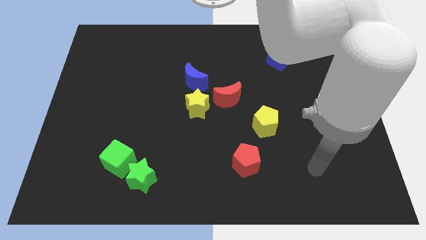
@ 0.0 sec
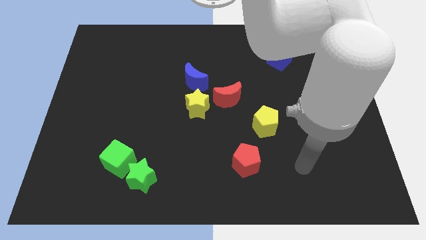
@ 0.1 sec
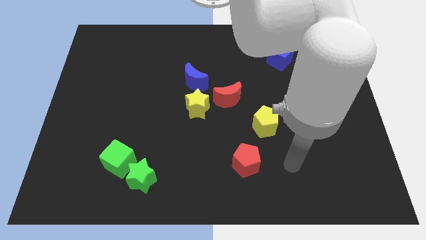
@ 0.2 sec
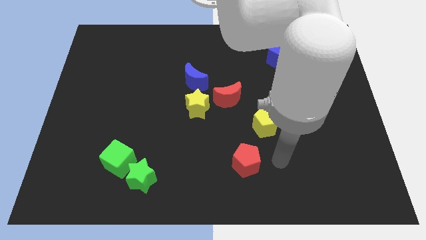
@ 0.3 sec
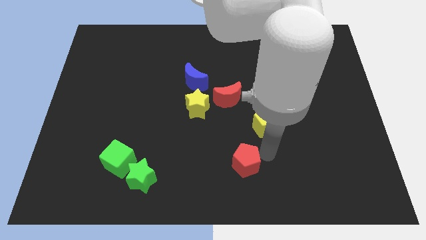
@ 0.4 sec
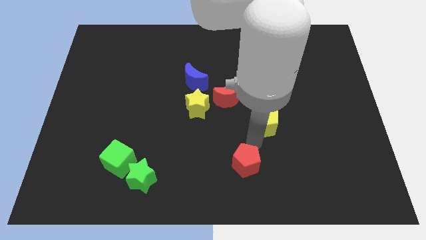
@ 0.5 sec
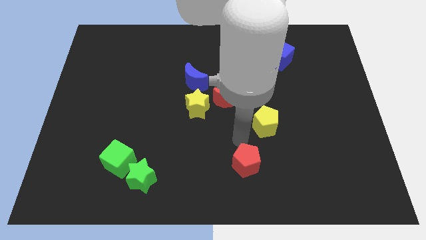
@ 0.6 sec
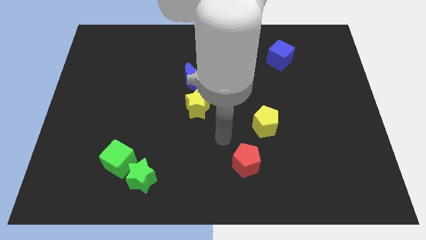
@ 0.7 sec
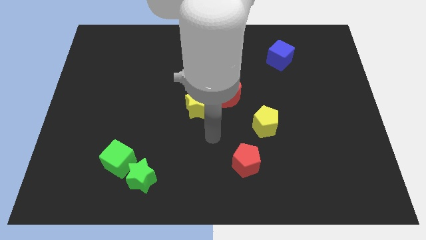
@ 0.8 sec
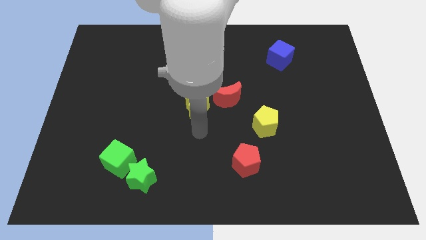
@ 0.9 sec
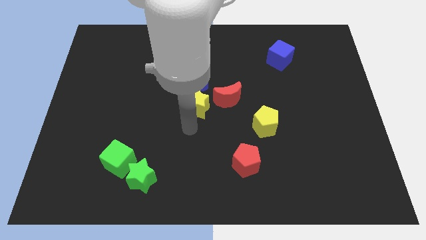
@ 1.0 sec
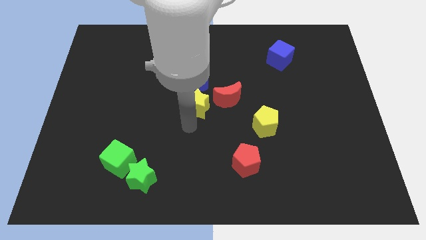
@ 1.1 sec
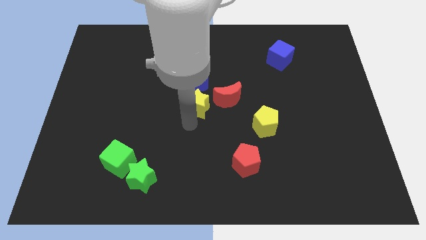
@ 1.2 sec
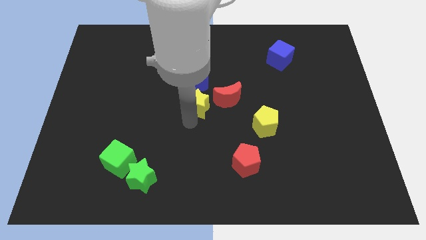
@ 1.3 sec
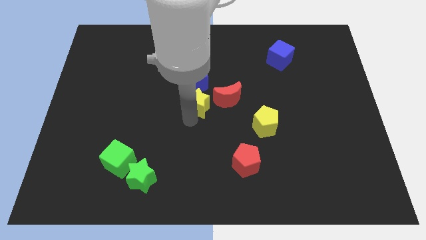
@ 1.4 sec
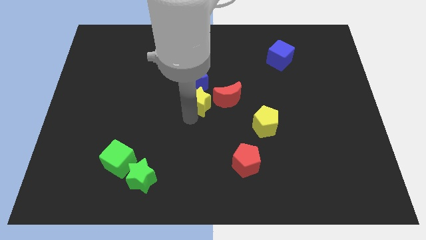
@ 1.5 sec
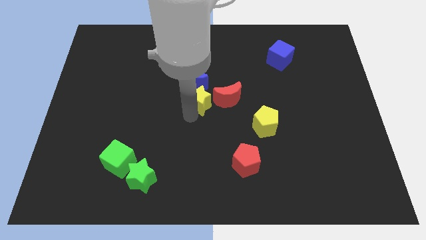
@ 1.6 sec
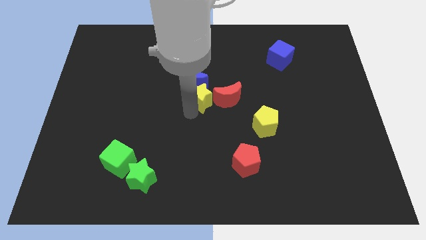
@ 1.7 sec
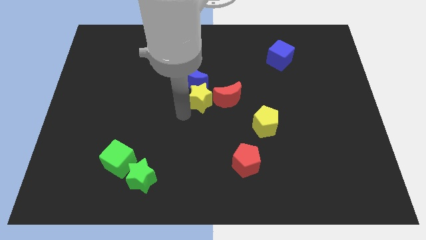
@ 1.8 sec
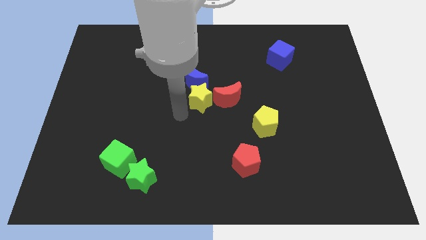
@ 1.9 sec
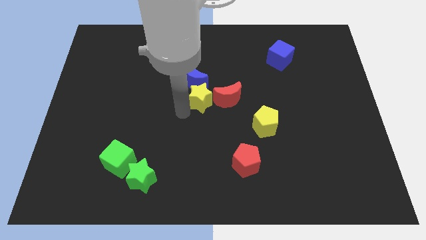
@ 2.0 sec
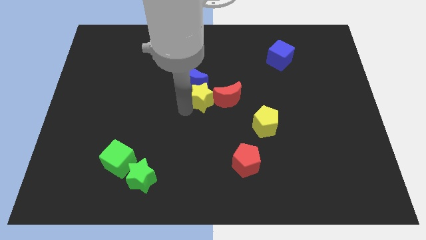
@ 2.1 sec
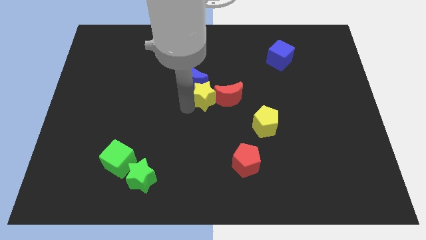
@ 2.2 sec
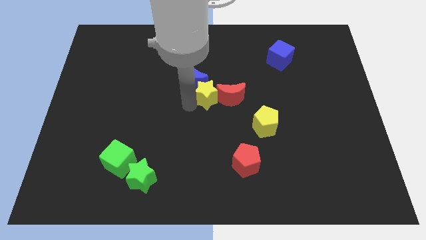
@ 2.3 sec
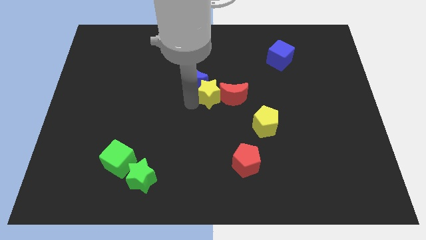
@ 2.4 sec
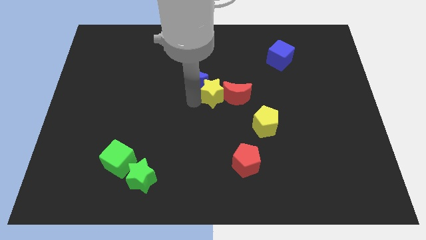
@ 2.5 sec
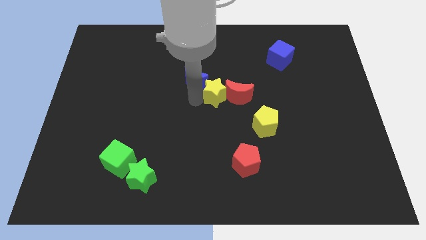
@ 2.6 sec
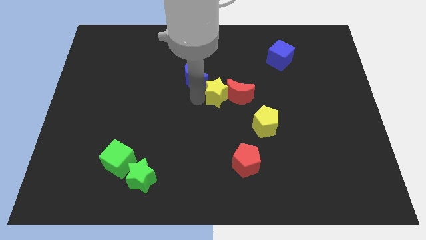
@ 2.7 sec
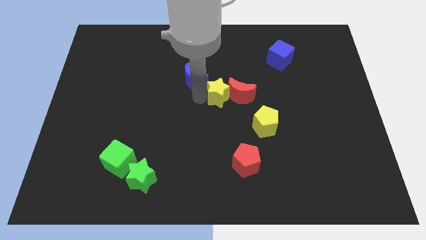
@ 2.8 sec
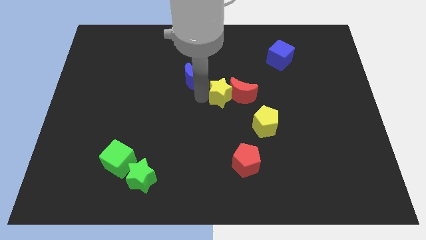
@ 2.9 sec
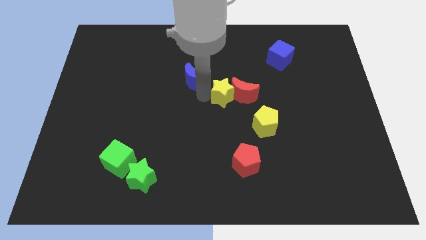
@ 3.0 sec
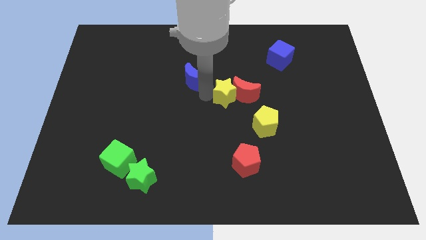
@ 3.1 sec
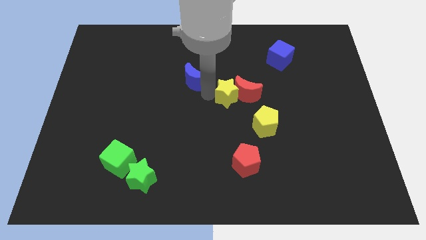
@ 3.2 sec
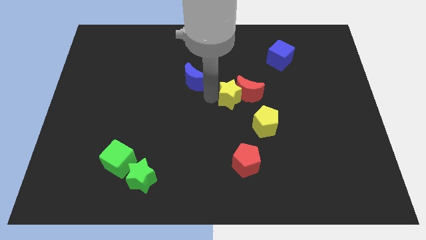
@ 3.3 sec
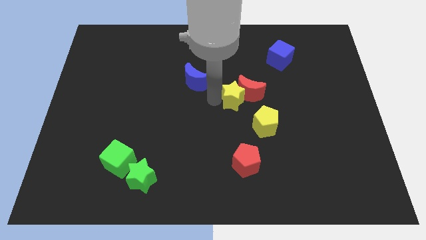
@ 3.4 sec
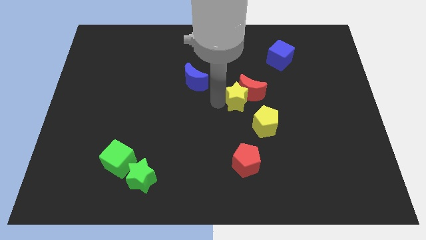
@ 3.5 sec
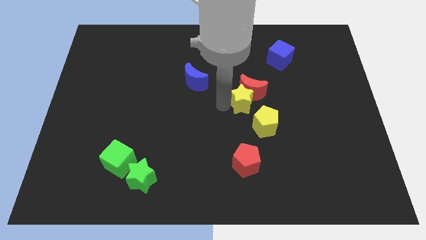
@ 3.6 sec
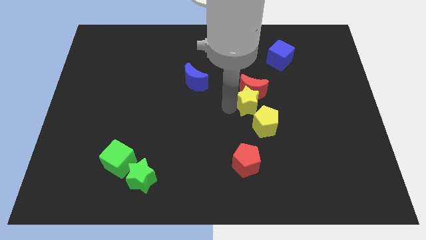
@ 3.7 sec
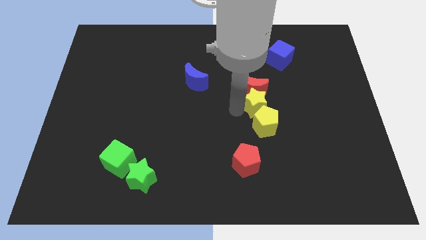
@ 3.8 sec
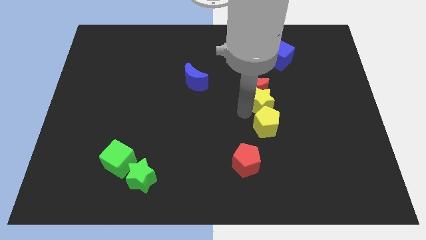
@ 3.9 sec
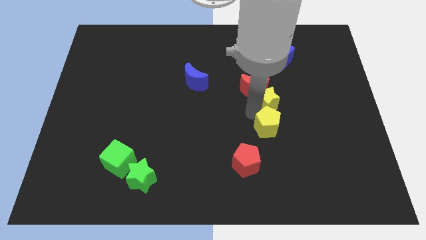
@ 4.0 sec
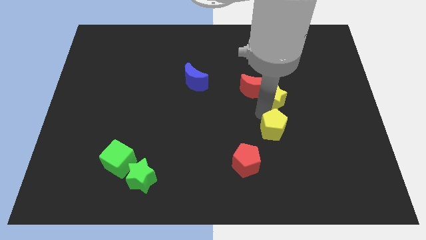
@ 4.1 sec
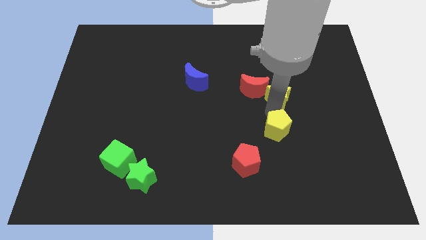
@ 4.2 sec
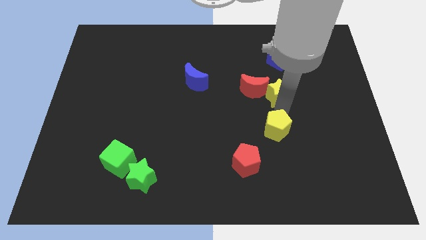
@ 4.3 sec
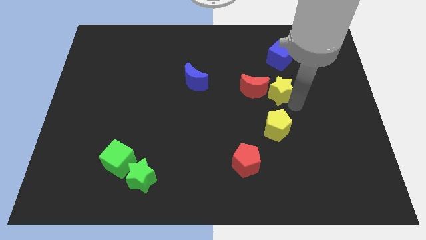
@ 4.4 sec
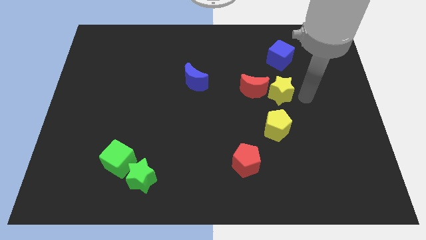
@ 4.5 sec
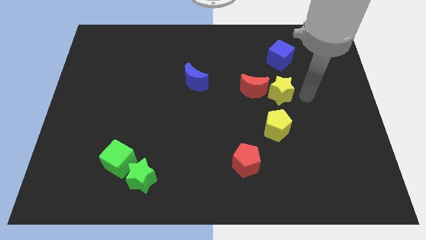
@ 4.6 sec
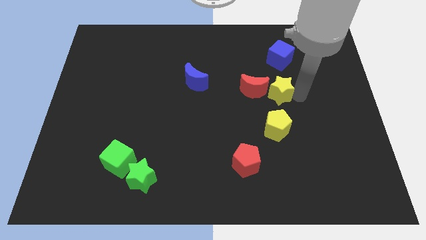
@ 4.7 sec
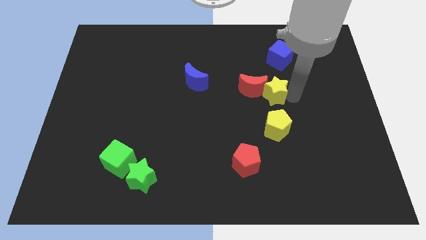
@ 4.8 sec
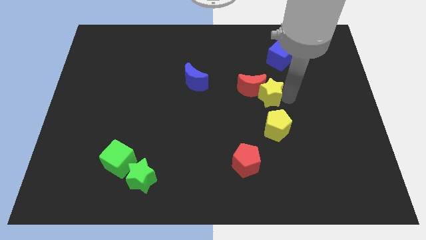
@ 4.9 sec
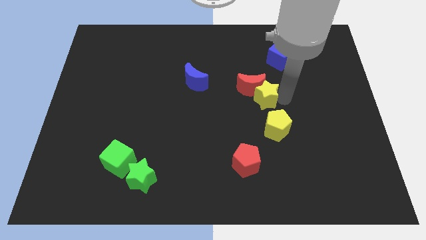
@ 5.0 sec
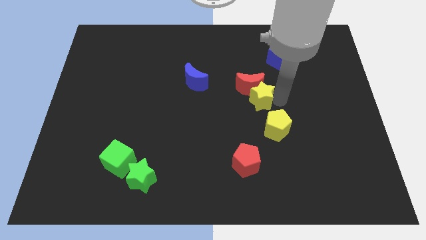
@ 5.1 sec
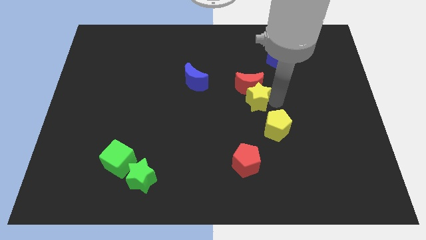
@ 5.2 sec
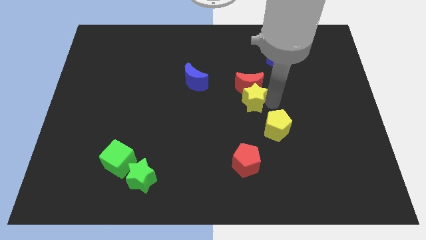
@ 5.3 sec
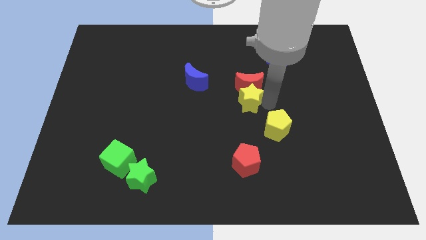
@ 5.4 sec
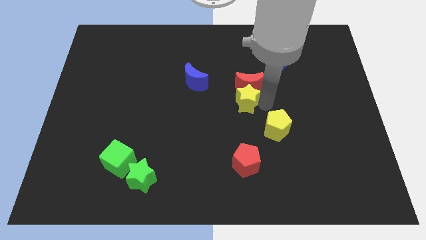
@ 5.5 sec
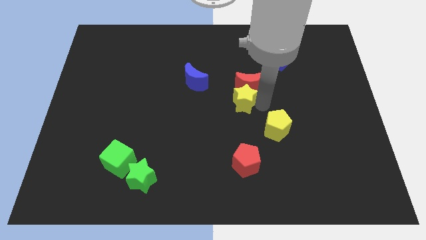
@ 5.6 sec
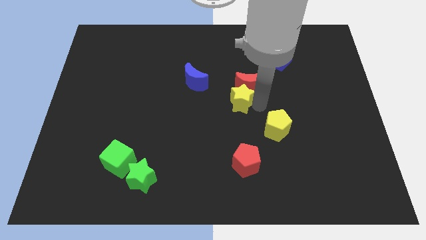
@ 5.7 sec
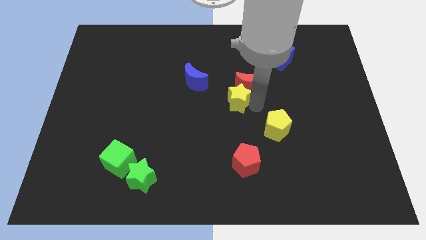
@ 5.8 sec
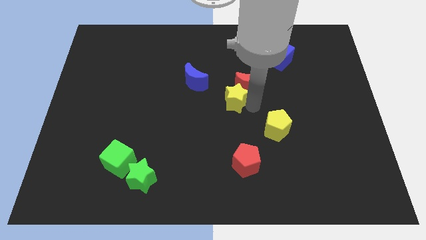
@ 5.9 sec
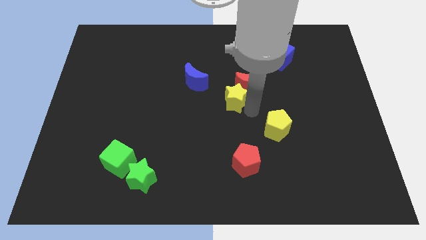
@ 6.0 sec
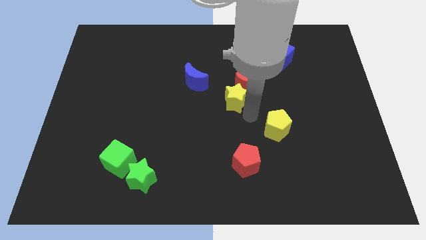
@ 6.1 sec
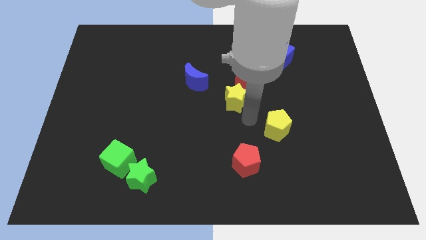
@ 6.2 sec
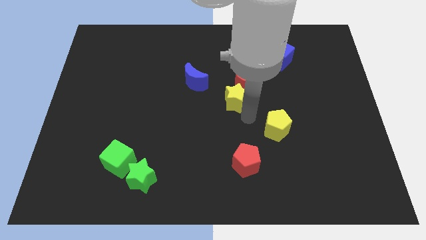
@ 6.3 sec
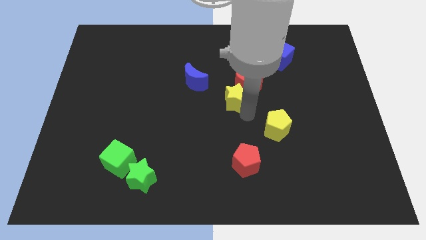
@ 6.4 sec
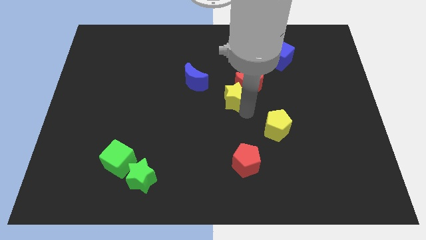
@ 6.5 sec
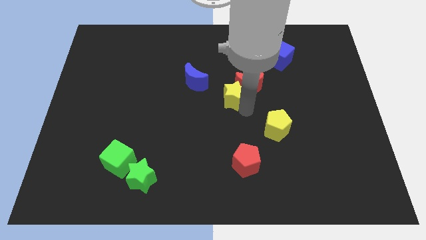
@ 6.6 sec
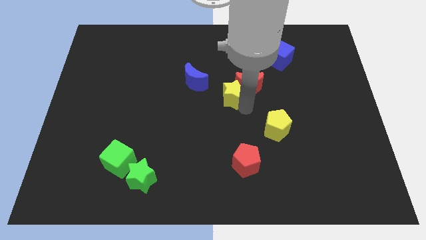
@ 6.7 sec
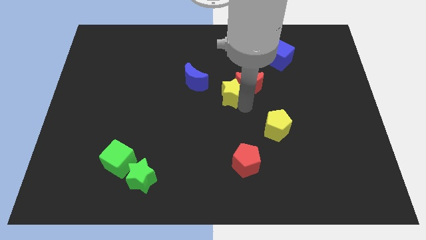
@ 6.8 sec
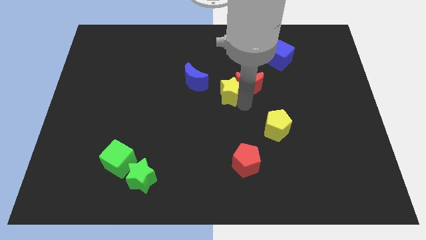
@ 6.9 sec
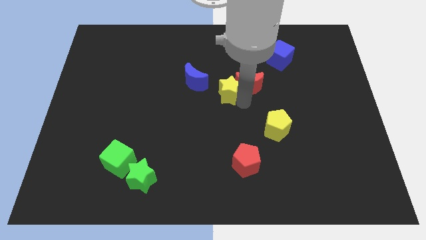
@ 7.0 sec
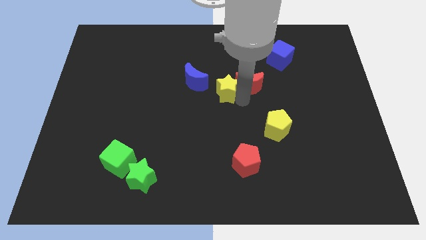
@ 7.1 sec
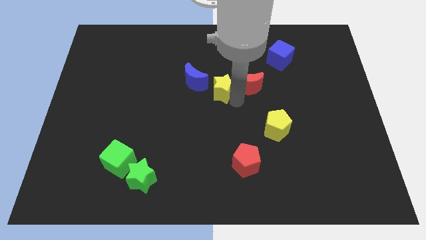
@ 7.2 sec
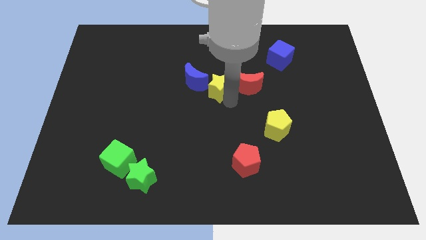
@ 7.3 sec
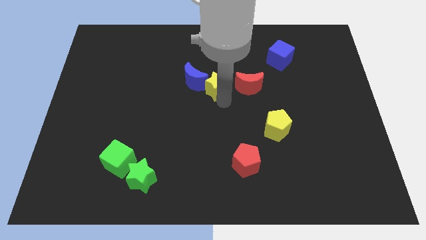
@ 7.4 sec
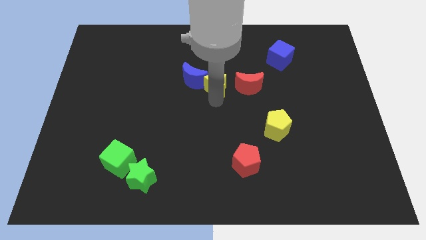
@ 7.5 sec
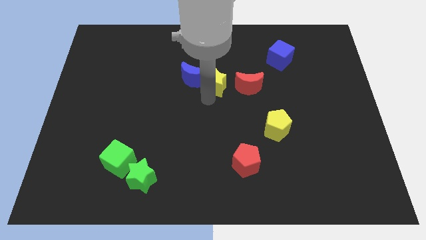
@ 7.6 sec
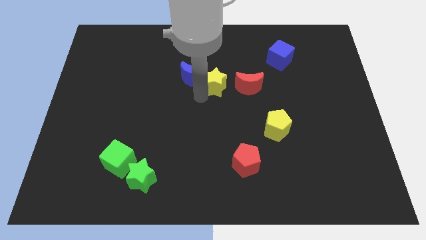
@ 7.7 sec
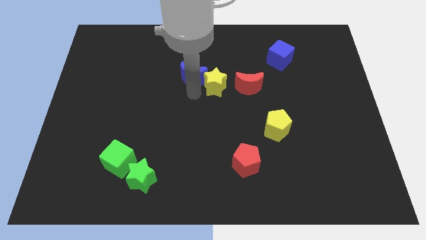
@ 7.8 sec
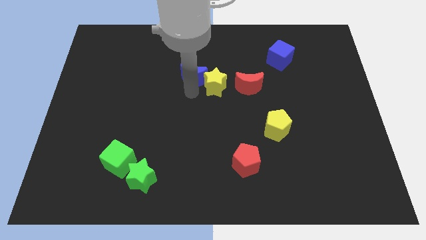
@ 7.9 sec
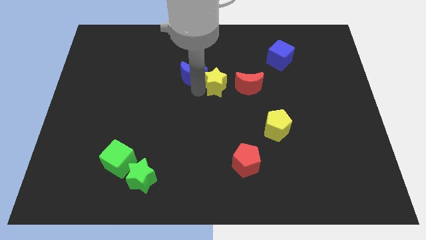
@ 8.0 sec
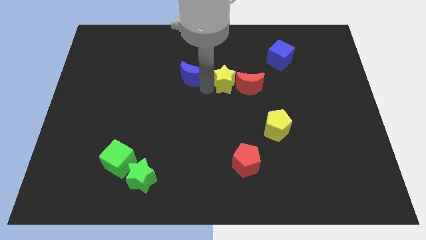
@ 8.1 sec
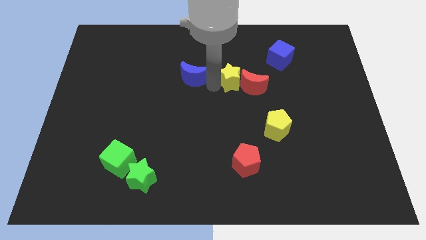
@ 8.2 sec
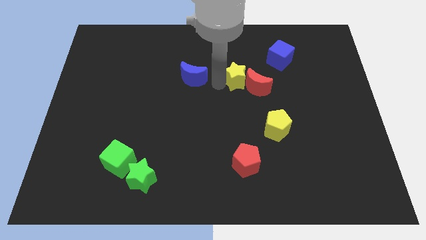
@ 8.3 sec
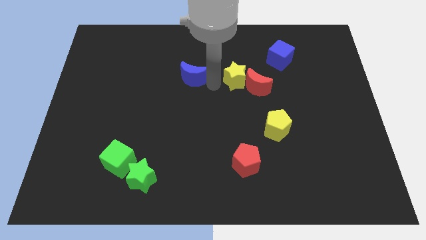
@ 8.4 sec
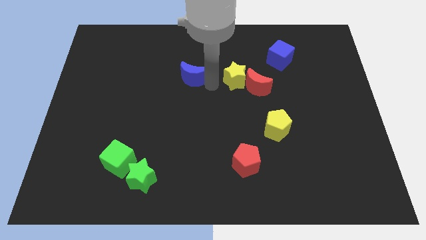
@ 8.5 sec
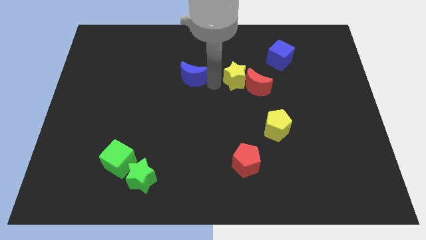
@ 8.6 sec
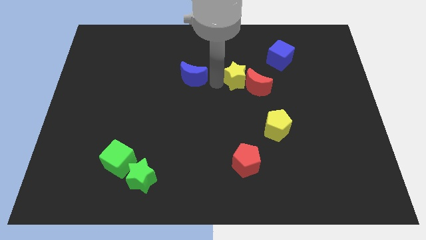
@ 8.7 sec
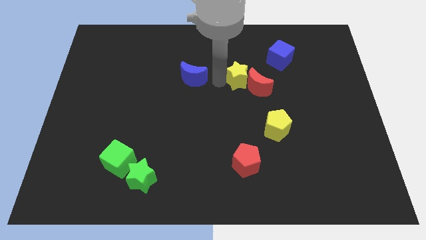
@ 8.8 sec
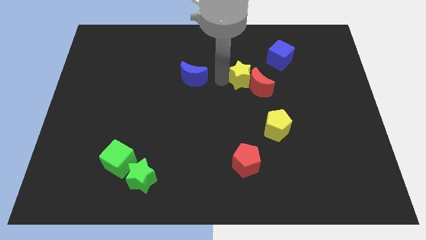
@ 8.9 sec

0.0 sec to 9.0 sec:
push the yellow star to the bottom left of the blue cube
